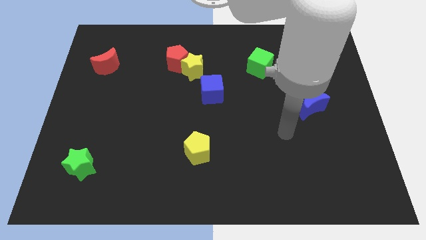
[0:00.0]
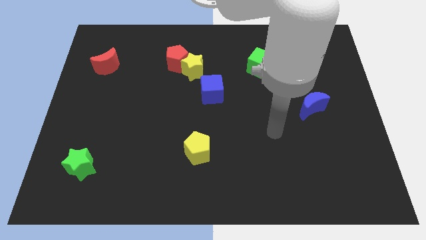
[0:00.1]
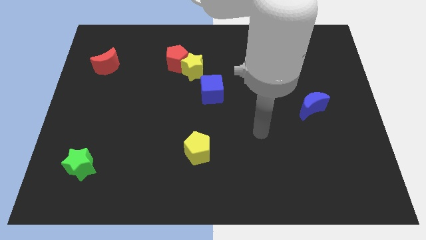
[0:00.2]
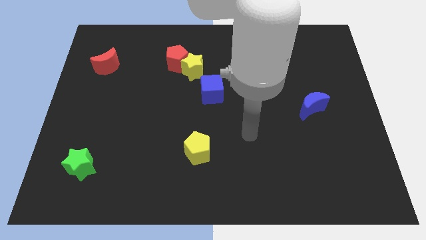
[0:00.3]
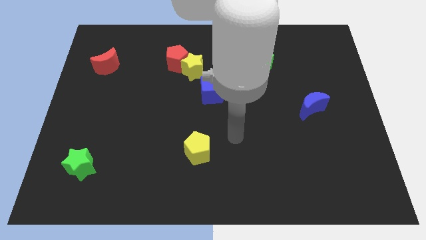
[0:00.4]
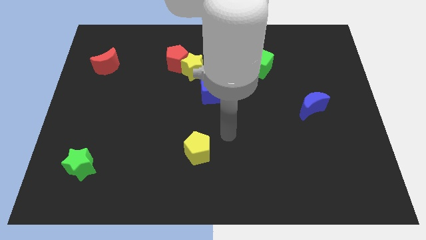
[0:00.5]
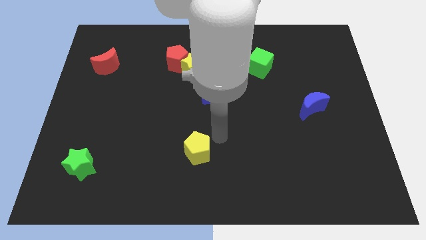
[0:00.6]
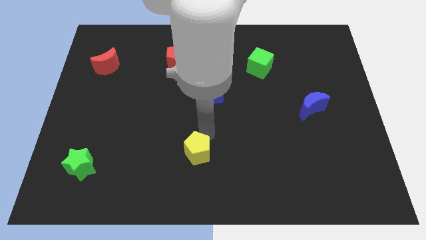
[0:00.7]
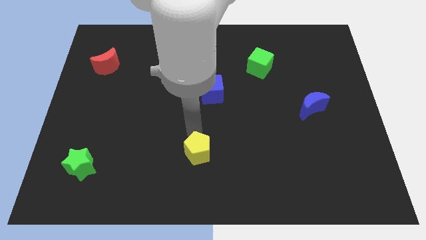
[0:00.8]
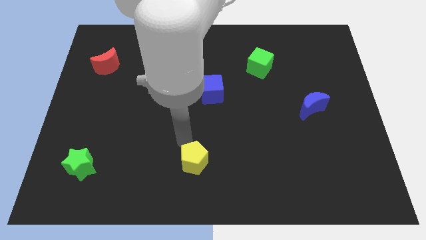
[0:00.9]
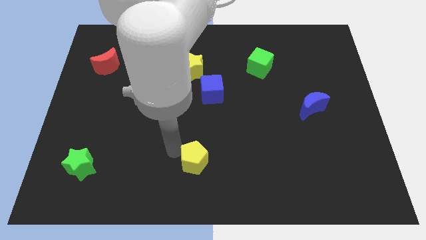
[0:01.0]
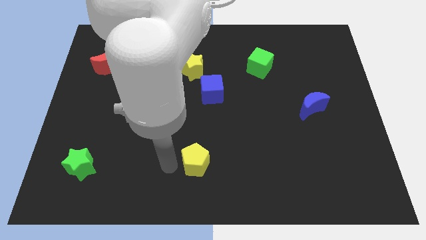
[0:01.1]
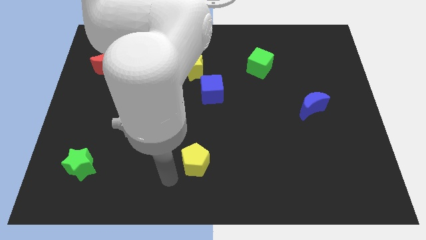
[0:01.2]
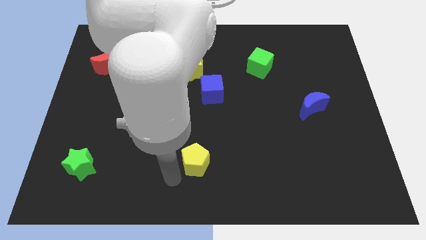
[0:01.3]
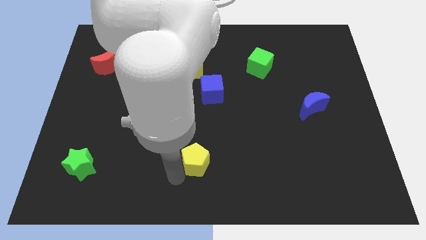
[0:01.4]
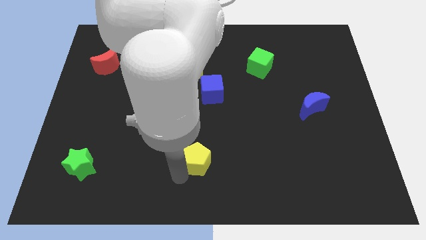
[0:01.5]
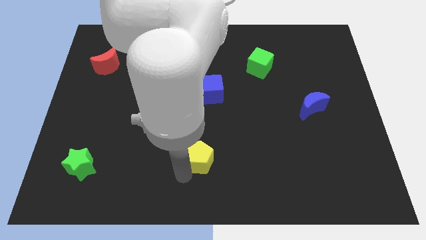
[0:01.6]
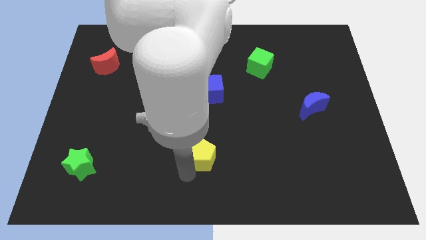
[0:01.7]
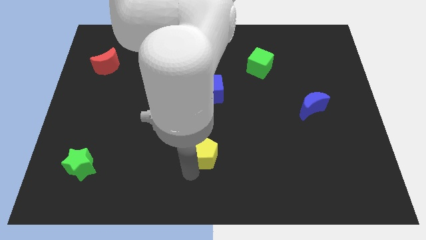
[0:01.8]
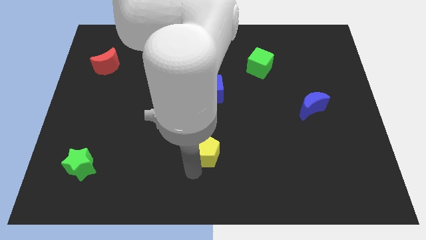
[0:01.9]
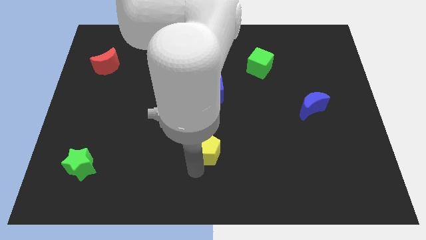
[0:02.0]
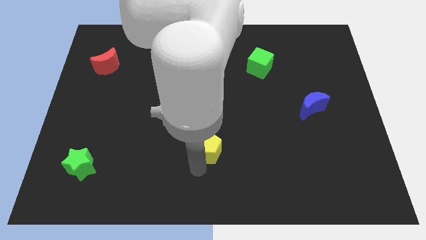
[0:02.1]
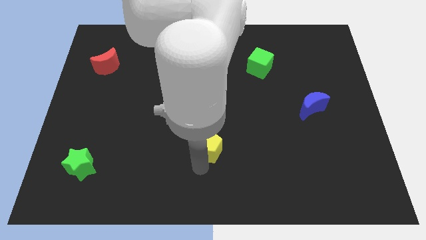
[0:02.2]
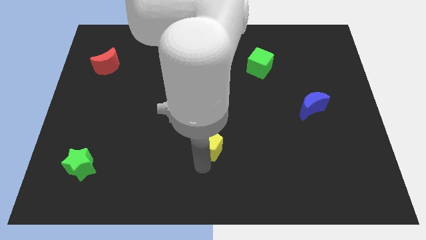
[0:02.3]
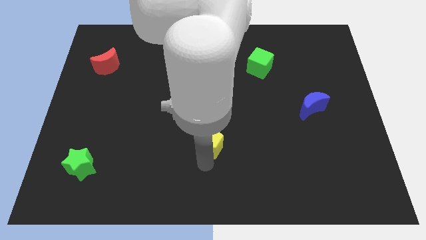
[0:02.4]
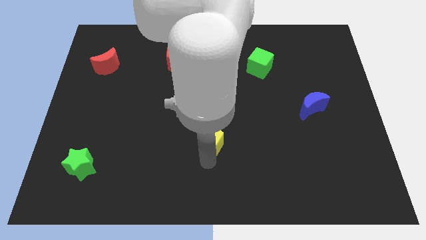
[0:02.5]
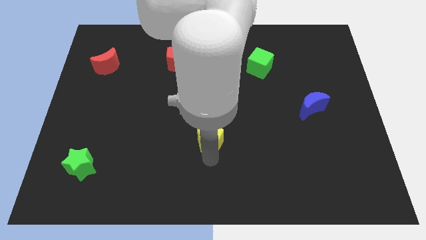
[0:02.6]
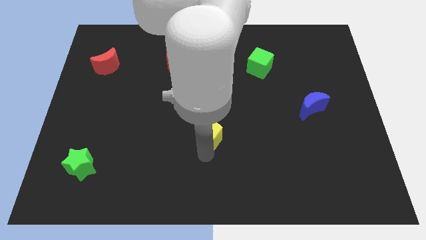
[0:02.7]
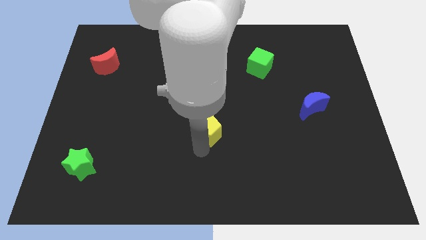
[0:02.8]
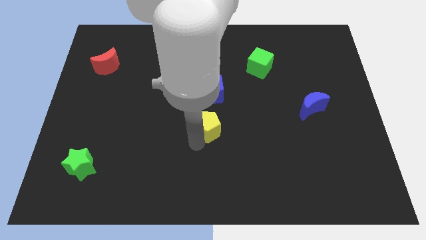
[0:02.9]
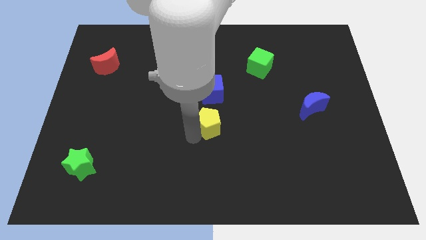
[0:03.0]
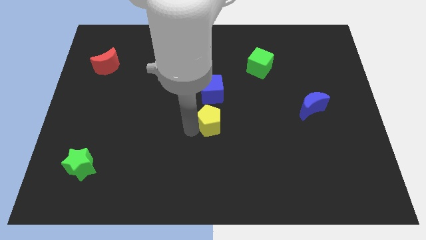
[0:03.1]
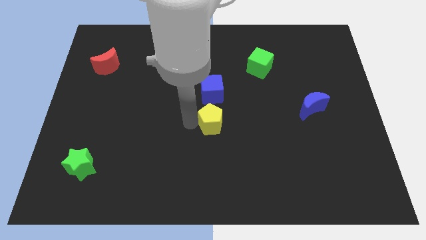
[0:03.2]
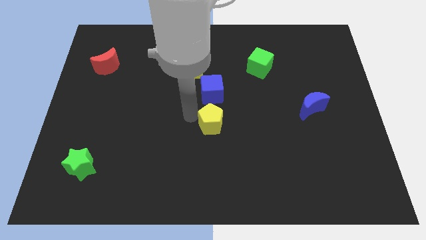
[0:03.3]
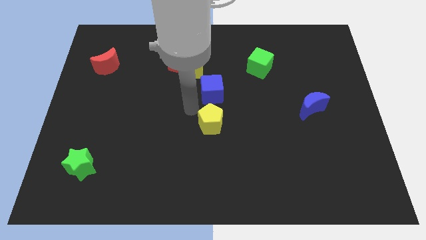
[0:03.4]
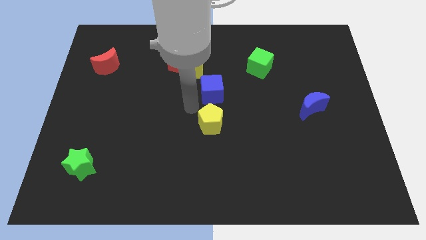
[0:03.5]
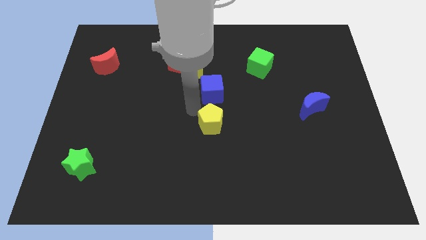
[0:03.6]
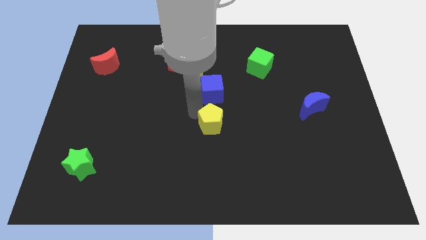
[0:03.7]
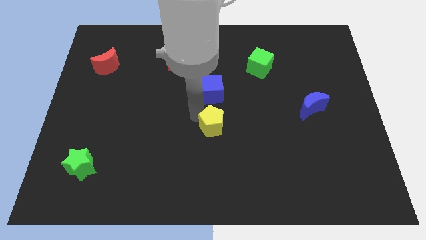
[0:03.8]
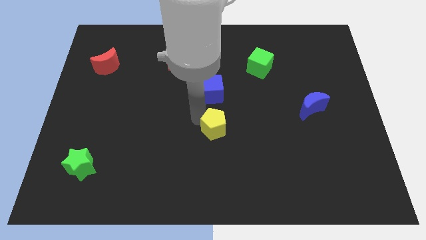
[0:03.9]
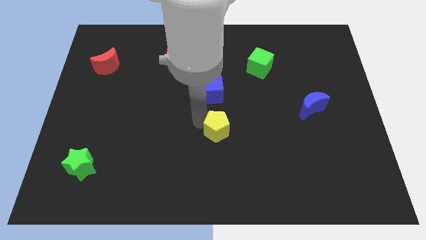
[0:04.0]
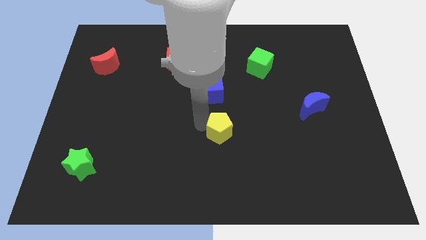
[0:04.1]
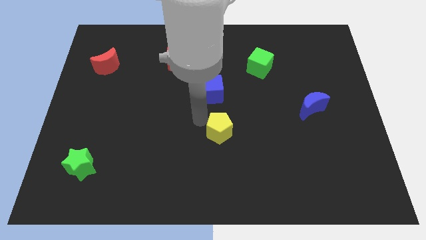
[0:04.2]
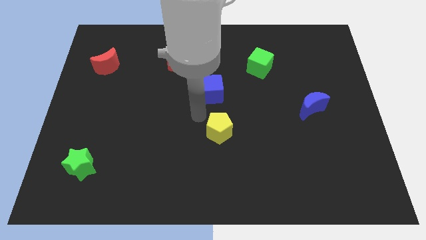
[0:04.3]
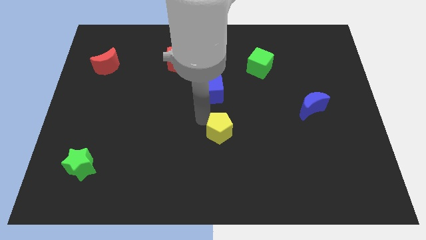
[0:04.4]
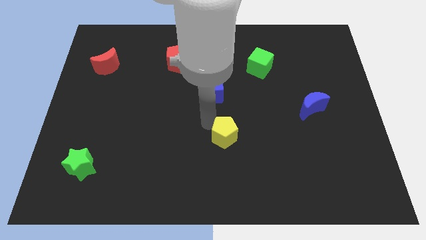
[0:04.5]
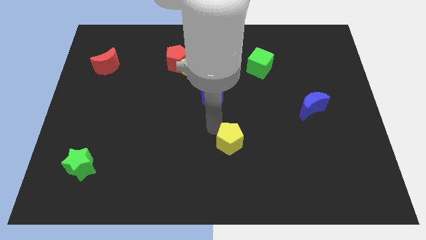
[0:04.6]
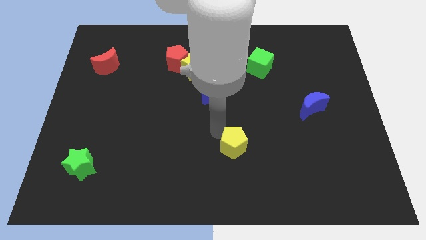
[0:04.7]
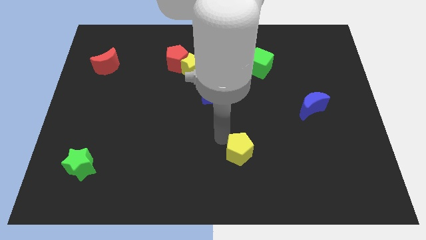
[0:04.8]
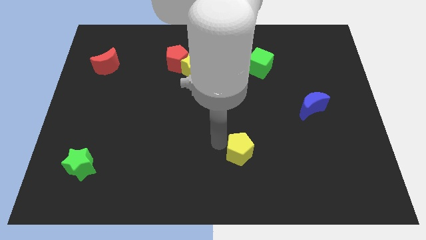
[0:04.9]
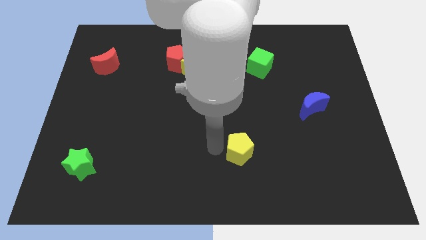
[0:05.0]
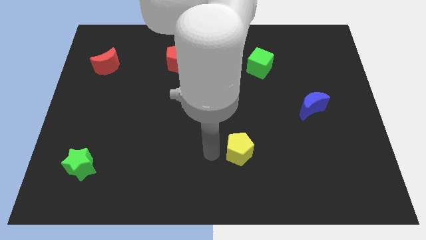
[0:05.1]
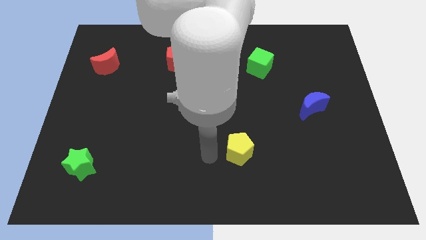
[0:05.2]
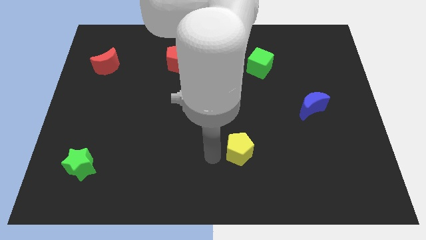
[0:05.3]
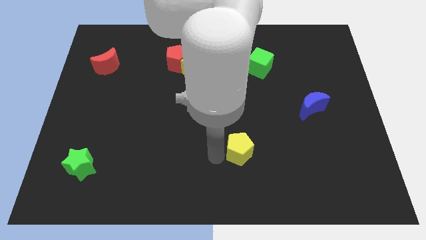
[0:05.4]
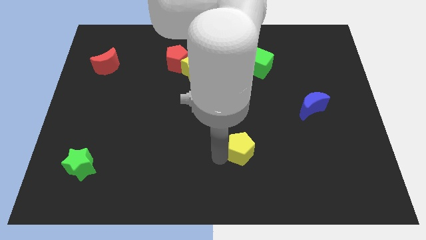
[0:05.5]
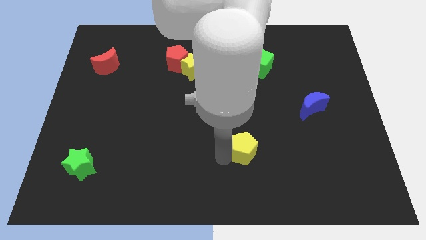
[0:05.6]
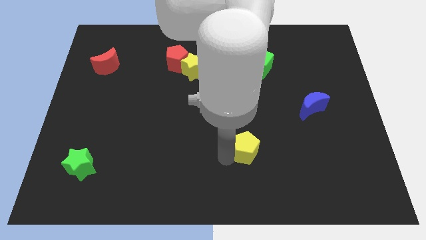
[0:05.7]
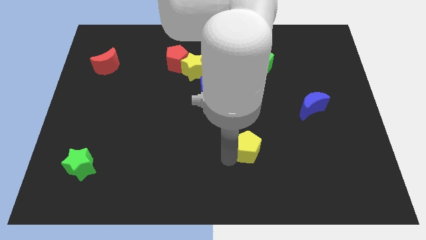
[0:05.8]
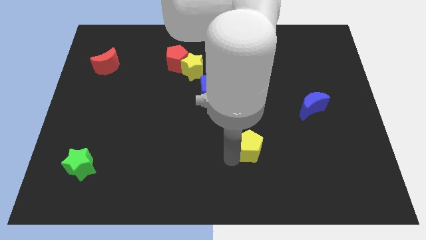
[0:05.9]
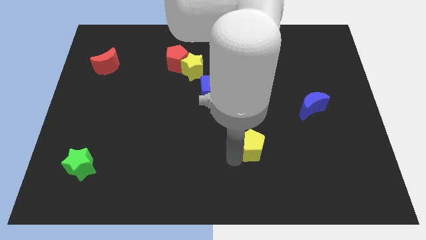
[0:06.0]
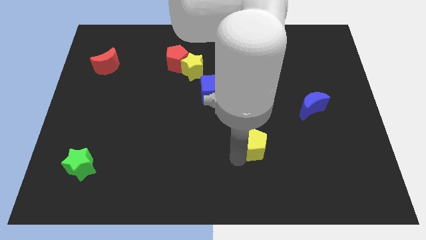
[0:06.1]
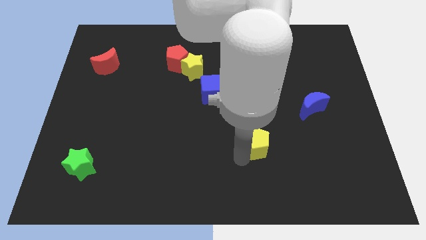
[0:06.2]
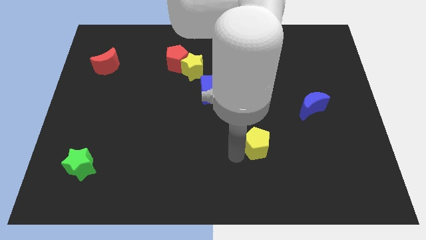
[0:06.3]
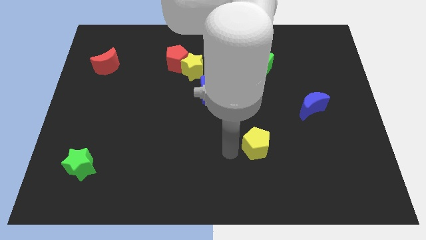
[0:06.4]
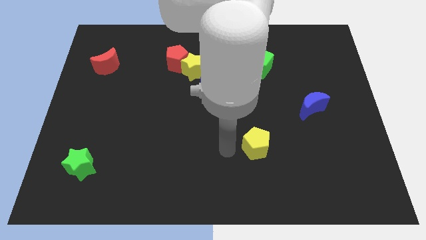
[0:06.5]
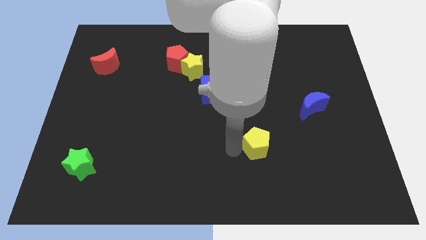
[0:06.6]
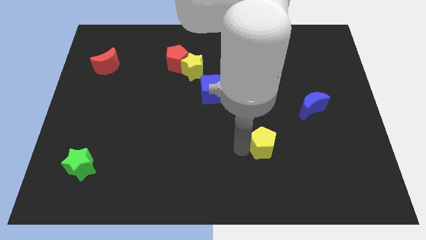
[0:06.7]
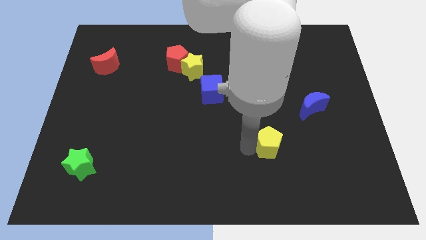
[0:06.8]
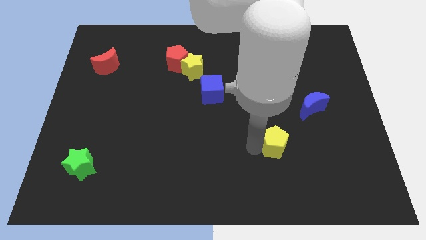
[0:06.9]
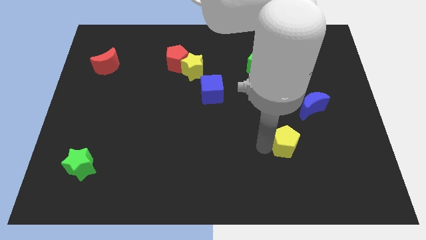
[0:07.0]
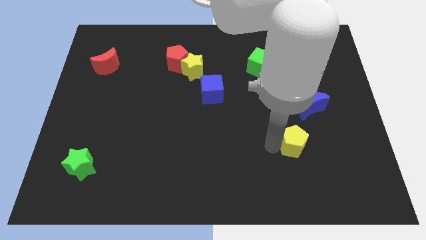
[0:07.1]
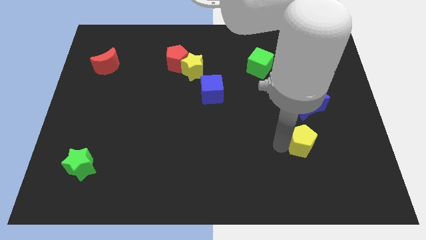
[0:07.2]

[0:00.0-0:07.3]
move the yellow pentagon to the bottom side of the blue moon
